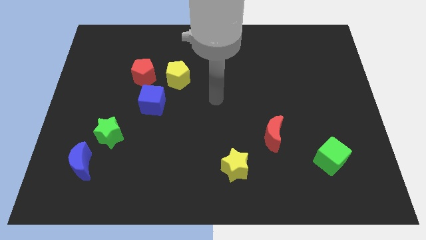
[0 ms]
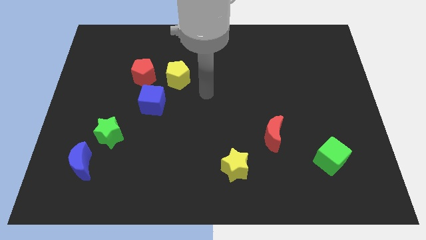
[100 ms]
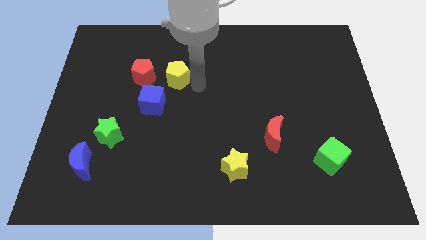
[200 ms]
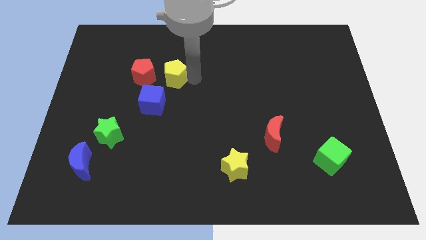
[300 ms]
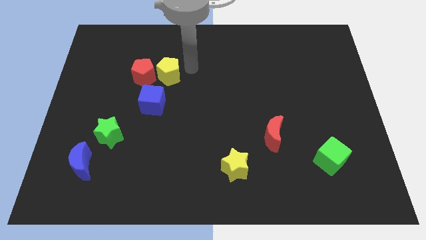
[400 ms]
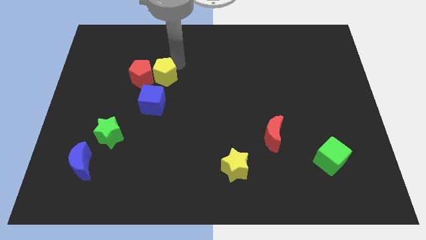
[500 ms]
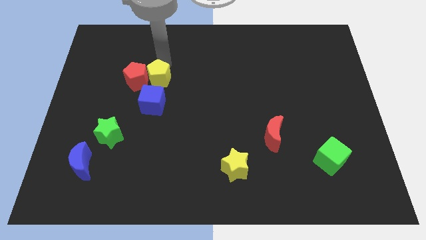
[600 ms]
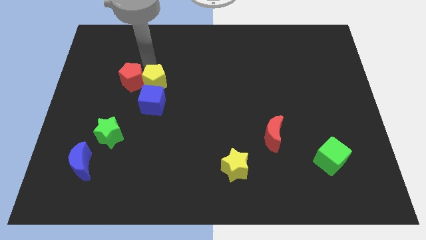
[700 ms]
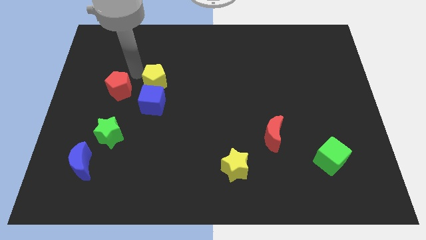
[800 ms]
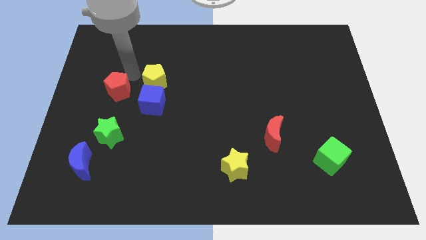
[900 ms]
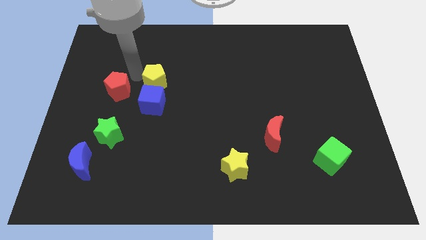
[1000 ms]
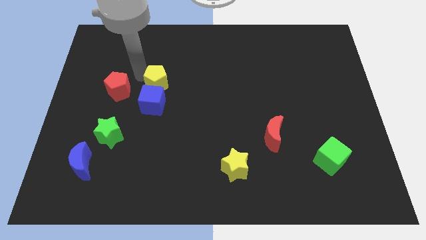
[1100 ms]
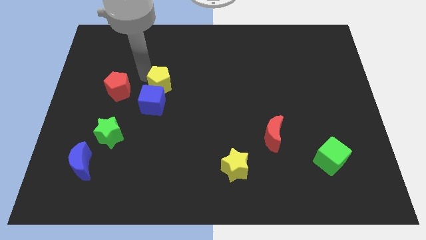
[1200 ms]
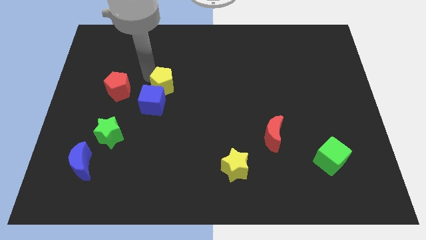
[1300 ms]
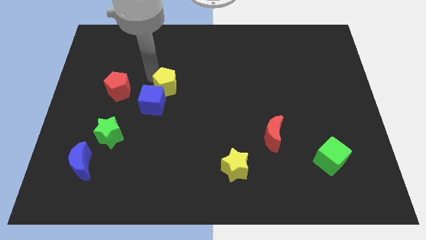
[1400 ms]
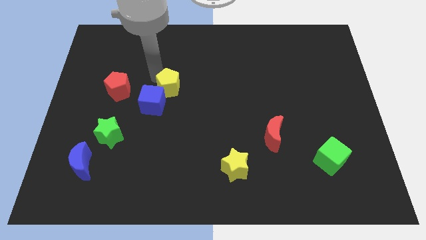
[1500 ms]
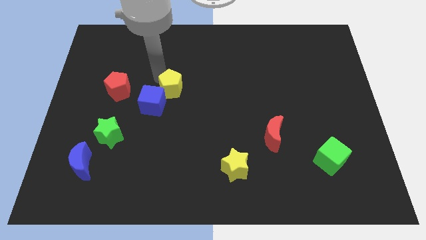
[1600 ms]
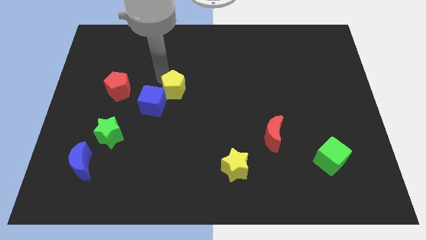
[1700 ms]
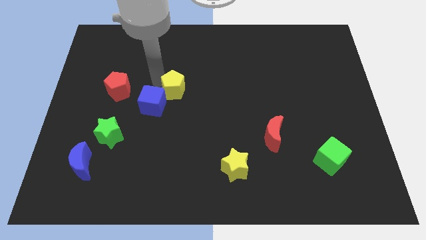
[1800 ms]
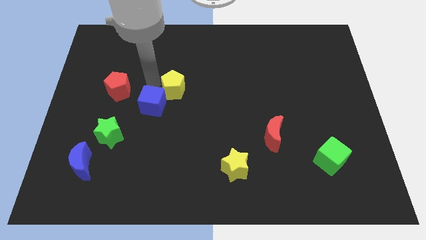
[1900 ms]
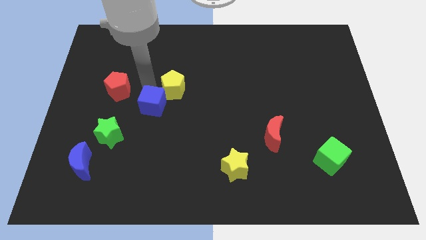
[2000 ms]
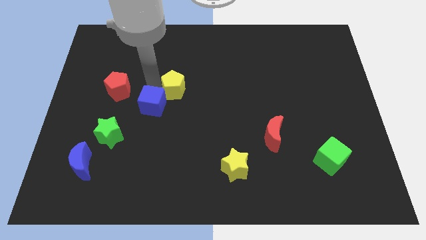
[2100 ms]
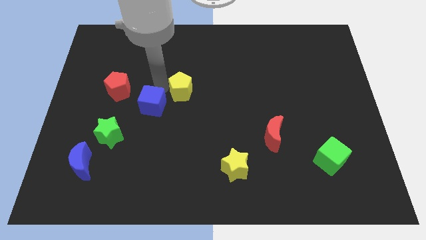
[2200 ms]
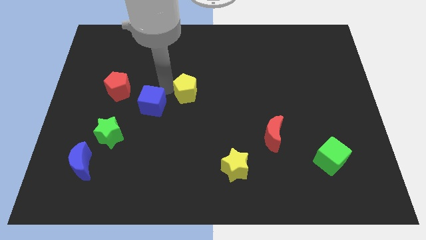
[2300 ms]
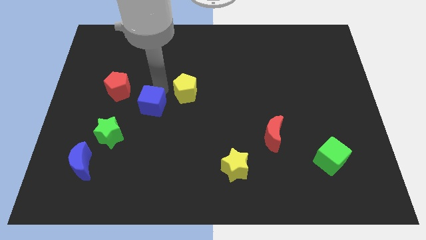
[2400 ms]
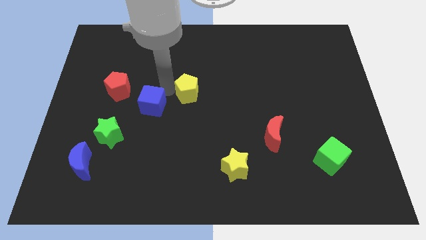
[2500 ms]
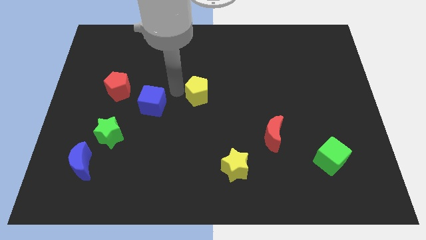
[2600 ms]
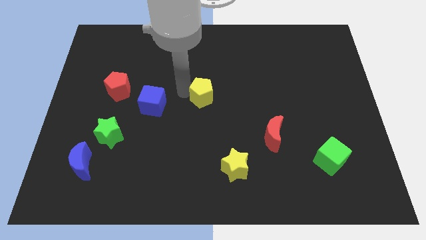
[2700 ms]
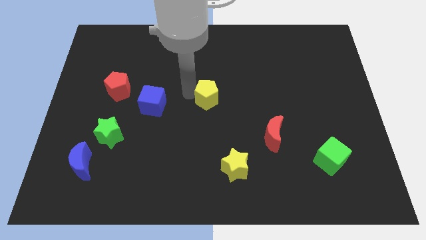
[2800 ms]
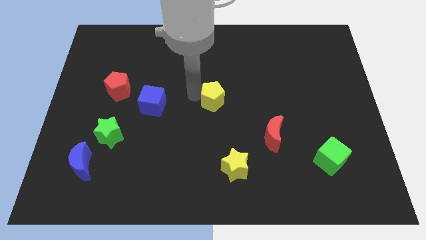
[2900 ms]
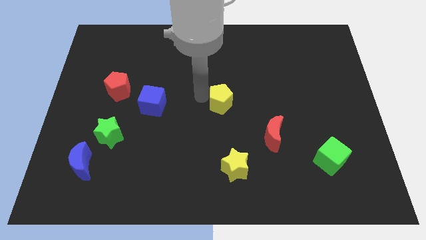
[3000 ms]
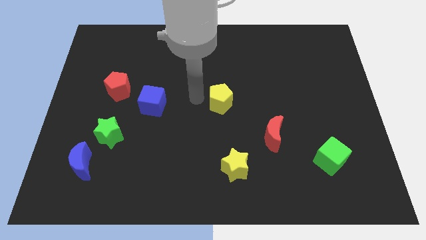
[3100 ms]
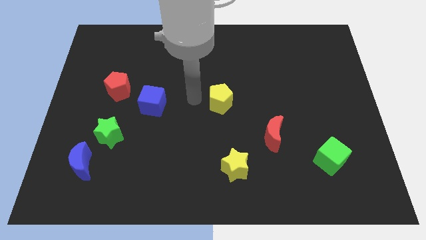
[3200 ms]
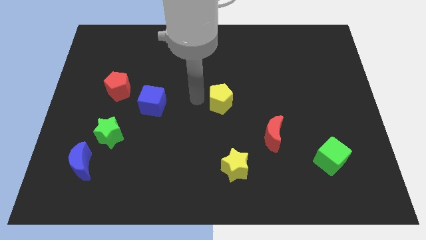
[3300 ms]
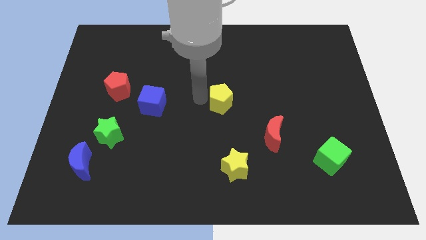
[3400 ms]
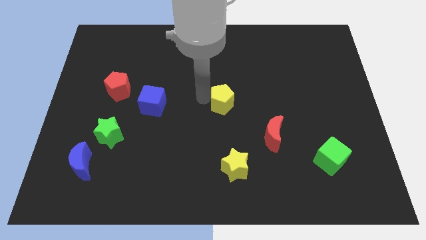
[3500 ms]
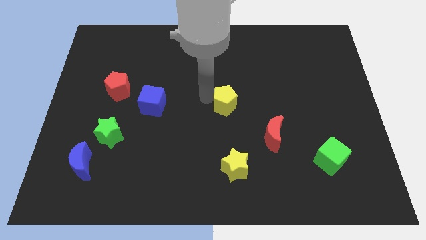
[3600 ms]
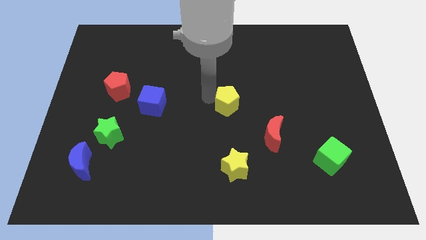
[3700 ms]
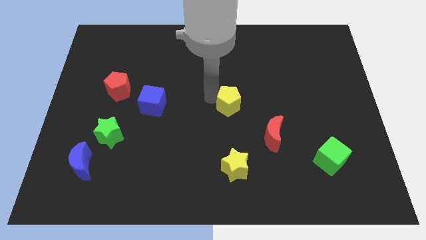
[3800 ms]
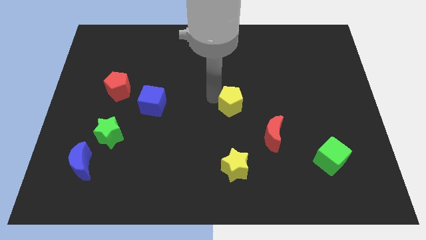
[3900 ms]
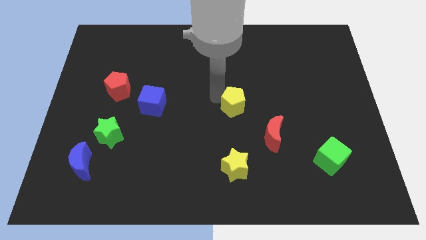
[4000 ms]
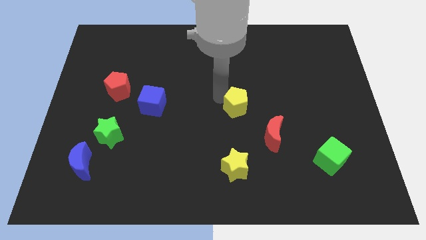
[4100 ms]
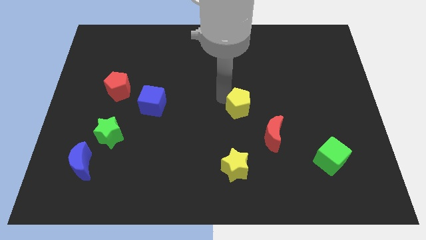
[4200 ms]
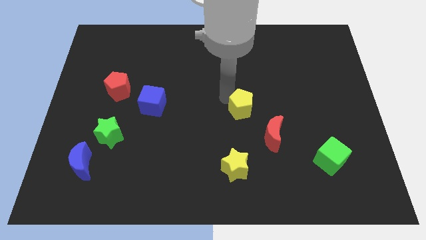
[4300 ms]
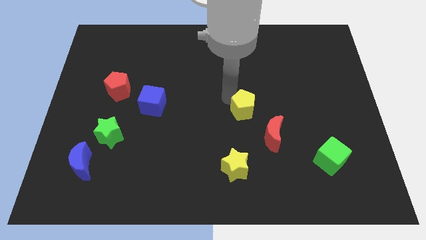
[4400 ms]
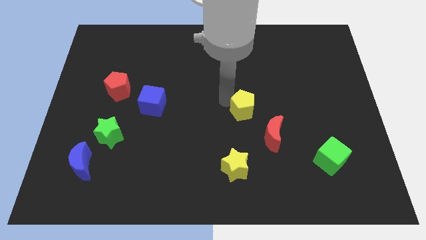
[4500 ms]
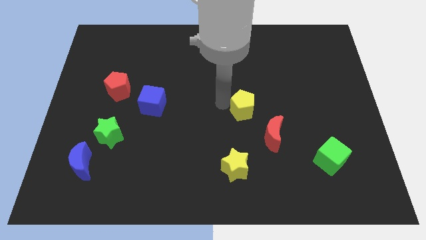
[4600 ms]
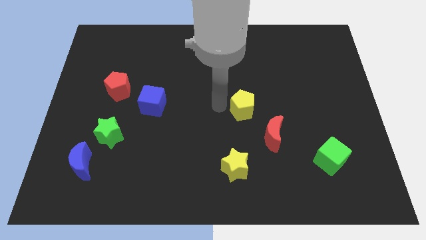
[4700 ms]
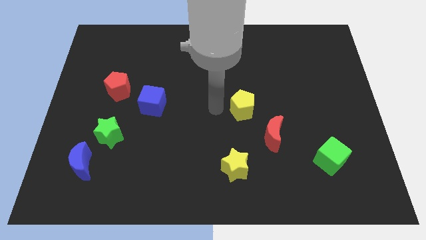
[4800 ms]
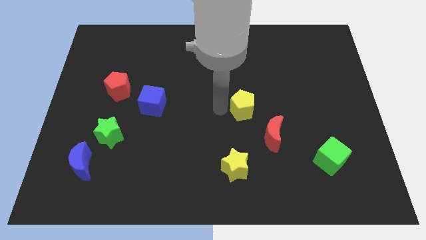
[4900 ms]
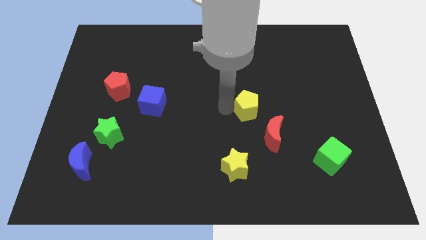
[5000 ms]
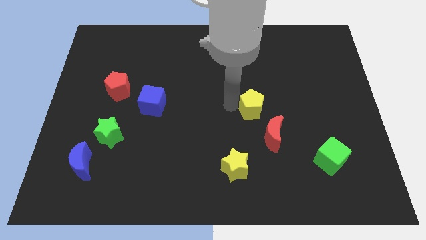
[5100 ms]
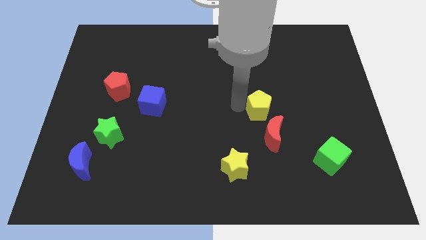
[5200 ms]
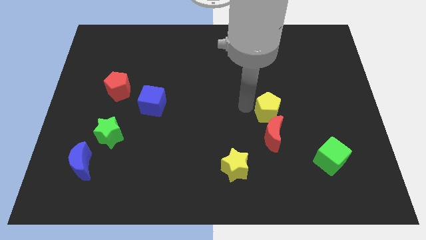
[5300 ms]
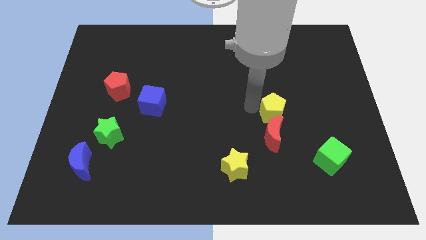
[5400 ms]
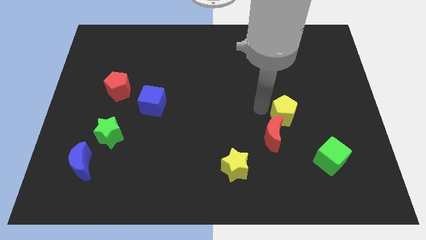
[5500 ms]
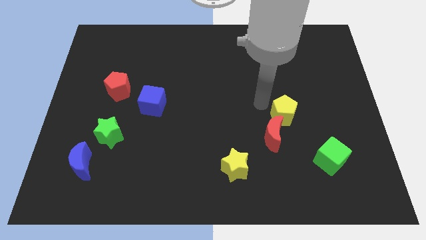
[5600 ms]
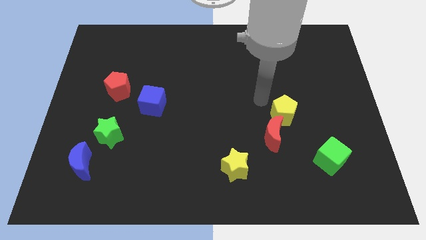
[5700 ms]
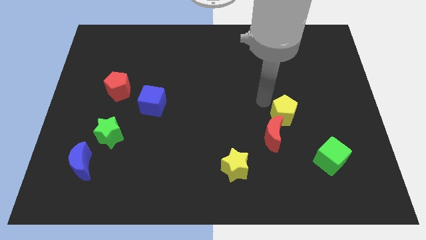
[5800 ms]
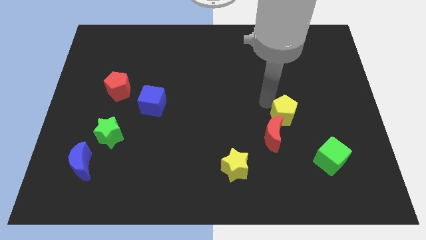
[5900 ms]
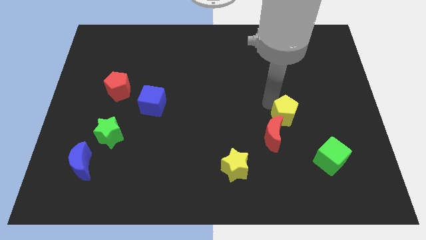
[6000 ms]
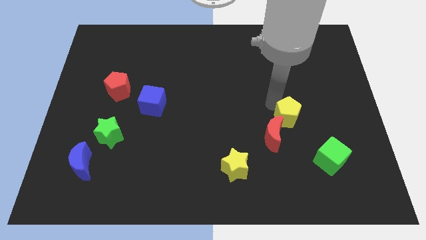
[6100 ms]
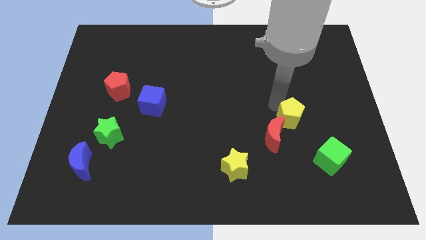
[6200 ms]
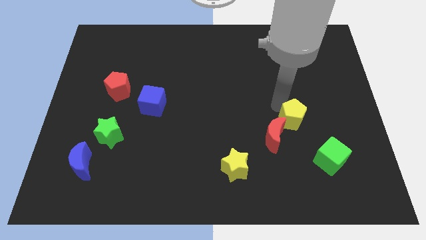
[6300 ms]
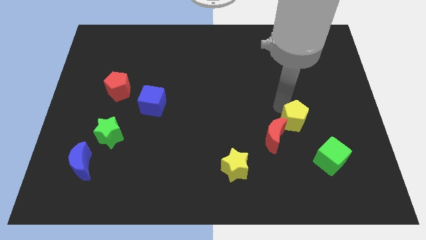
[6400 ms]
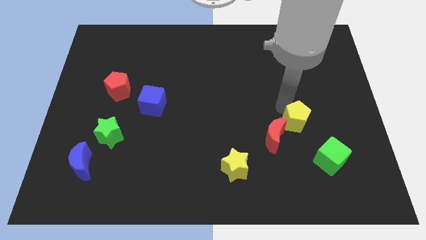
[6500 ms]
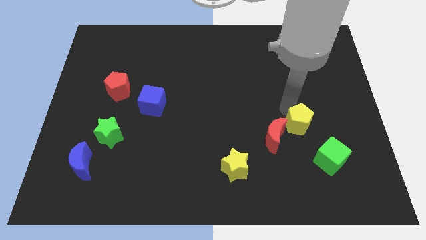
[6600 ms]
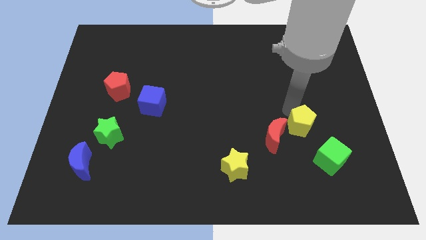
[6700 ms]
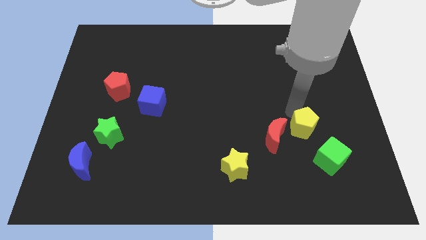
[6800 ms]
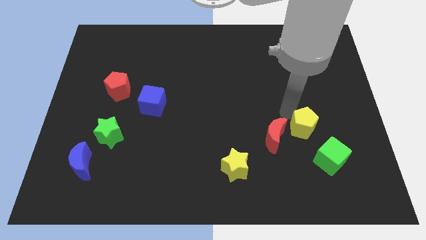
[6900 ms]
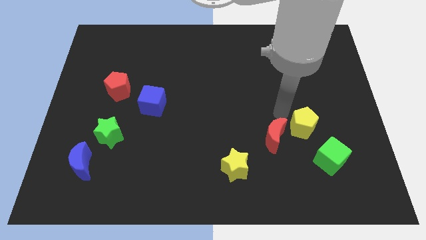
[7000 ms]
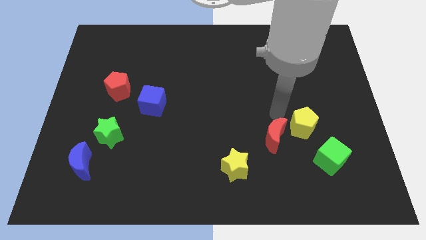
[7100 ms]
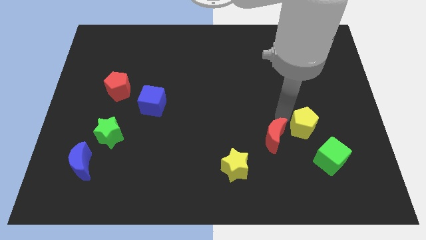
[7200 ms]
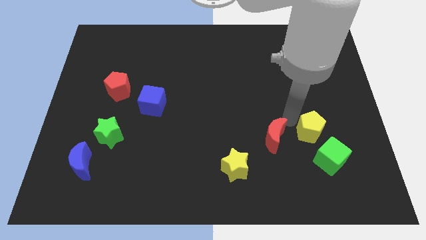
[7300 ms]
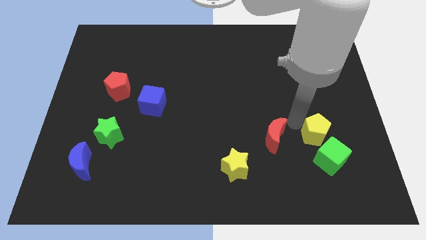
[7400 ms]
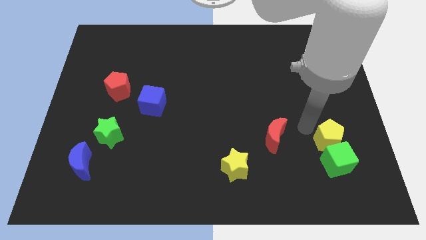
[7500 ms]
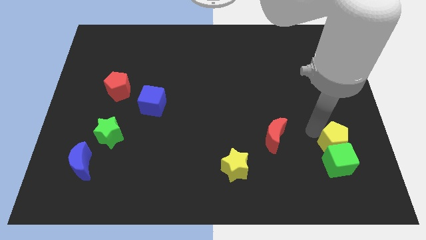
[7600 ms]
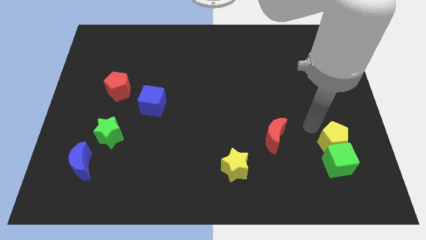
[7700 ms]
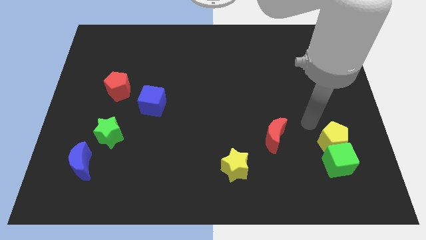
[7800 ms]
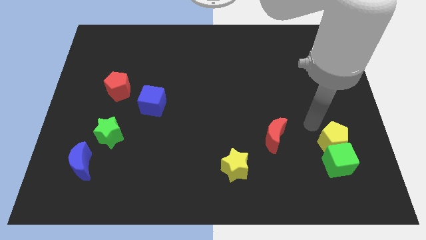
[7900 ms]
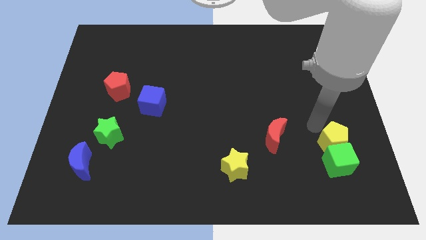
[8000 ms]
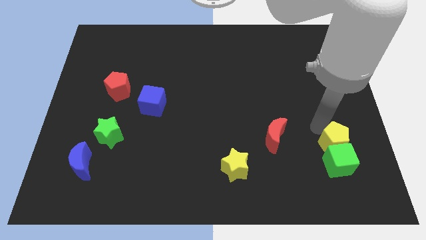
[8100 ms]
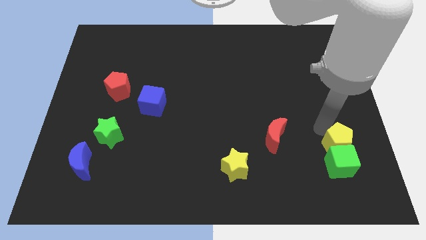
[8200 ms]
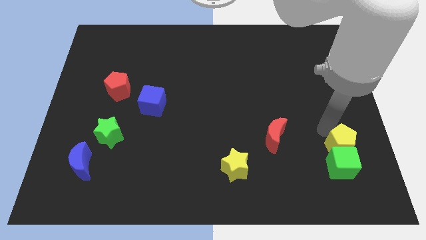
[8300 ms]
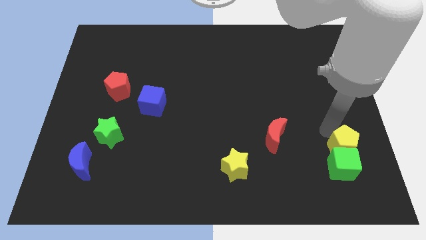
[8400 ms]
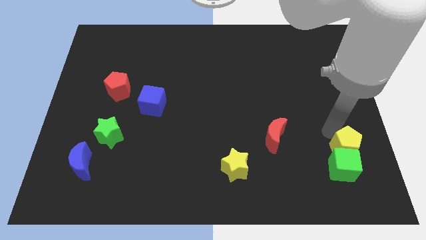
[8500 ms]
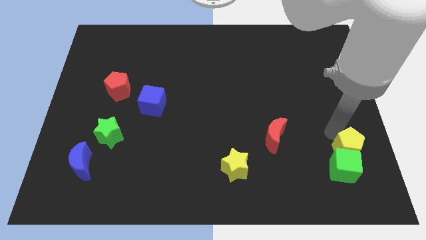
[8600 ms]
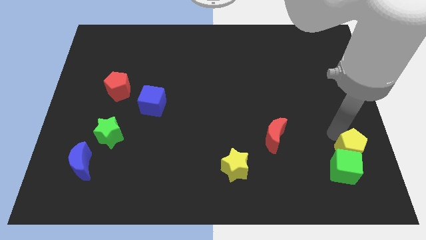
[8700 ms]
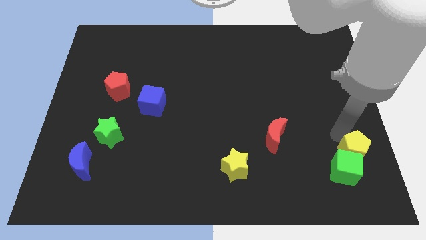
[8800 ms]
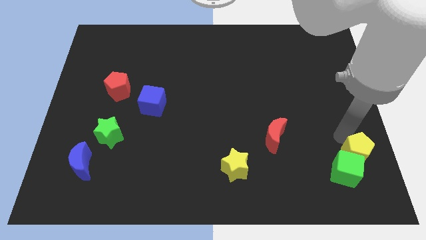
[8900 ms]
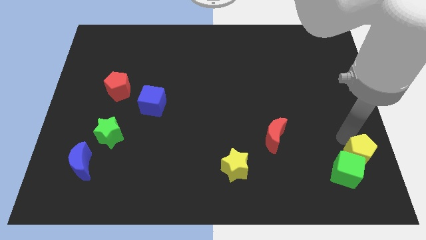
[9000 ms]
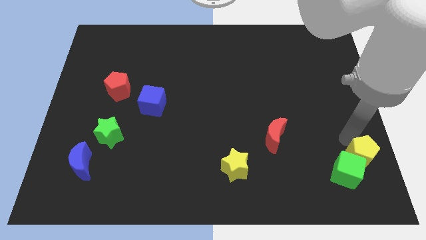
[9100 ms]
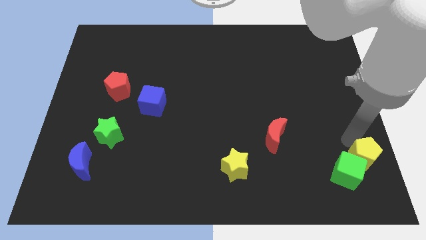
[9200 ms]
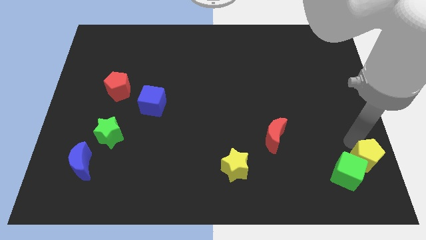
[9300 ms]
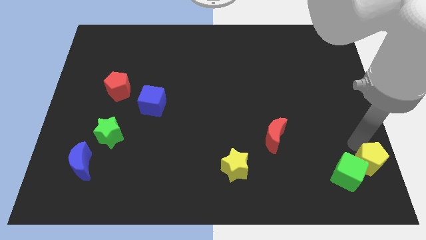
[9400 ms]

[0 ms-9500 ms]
push the yellow pentagon to the bottom right
